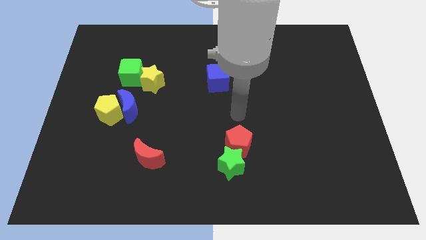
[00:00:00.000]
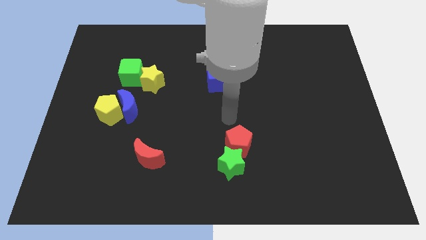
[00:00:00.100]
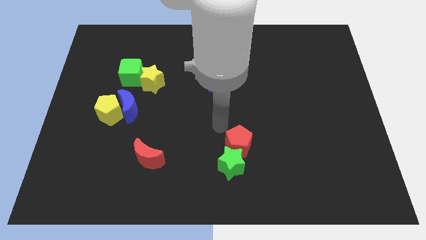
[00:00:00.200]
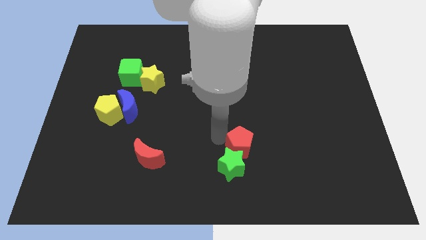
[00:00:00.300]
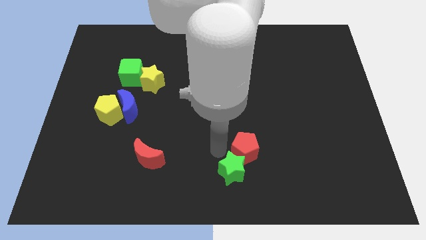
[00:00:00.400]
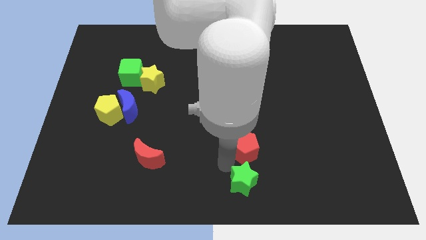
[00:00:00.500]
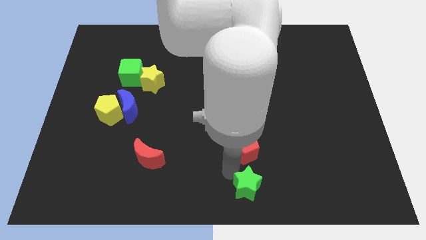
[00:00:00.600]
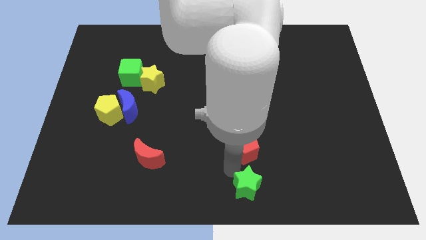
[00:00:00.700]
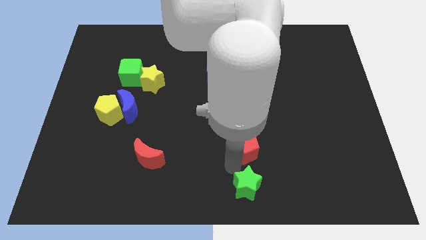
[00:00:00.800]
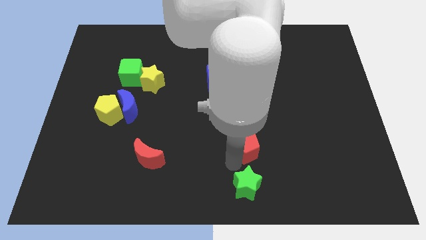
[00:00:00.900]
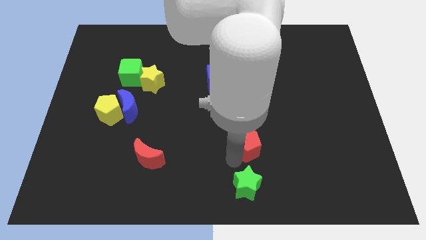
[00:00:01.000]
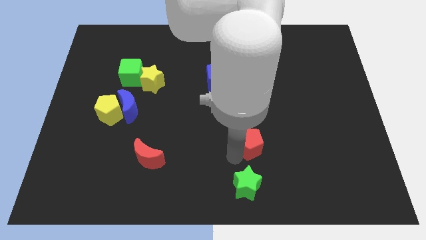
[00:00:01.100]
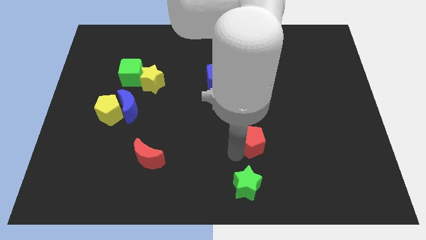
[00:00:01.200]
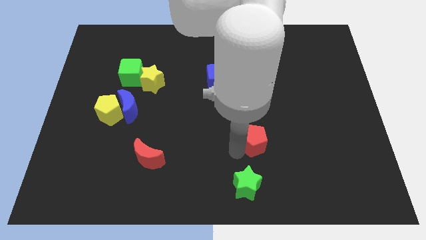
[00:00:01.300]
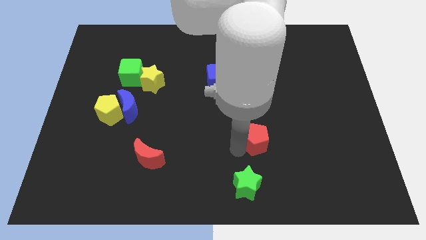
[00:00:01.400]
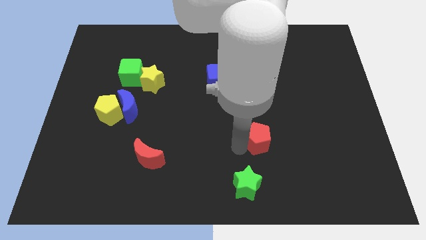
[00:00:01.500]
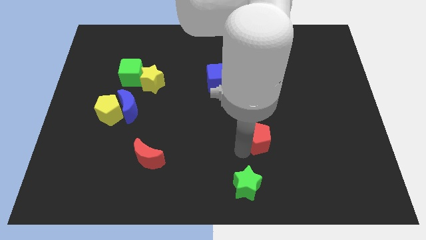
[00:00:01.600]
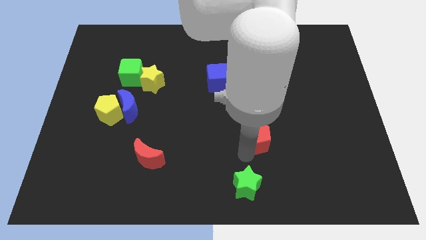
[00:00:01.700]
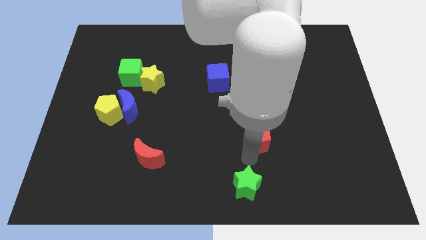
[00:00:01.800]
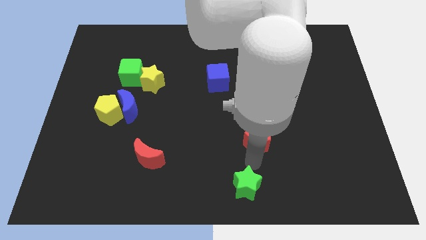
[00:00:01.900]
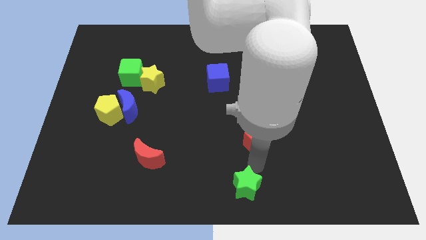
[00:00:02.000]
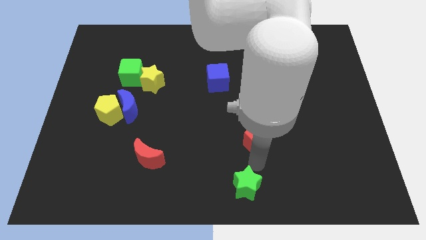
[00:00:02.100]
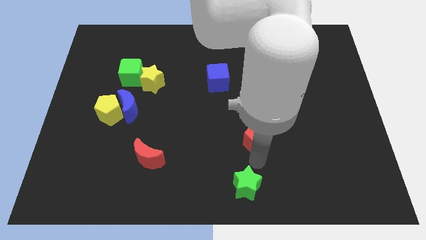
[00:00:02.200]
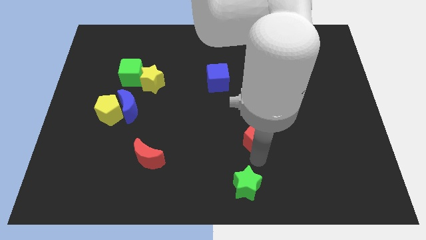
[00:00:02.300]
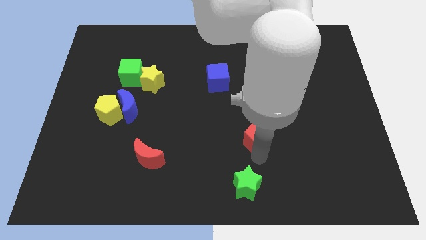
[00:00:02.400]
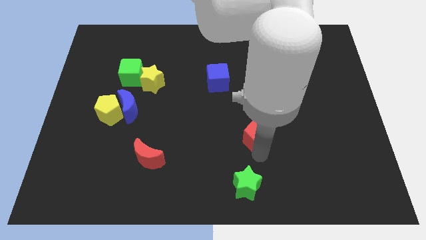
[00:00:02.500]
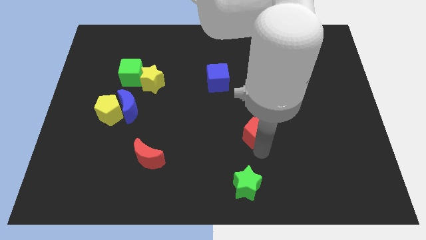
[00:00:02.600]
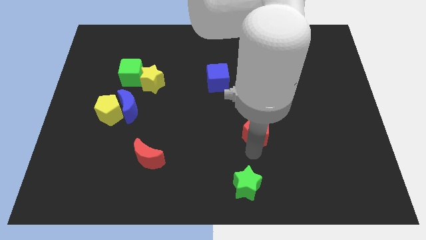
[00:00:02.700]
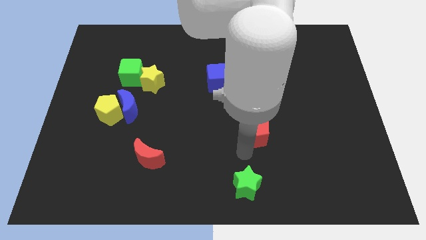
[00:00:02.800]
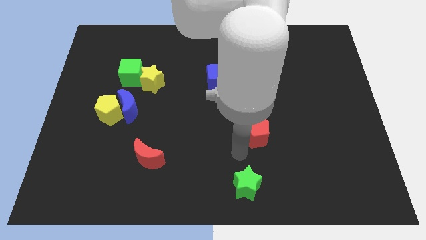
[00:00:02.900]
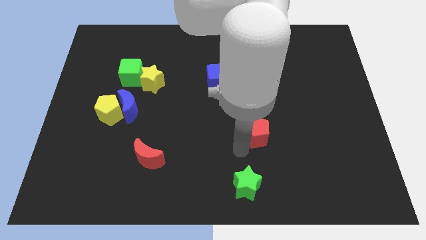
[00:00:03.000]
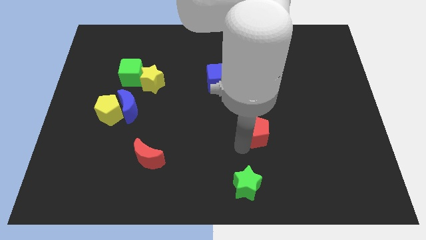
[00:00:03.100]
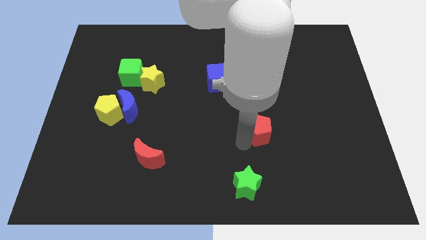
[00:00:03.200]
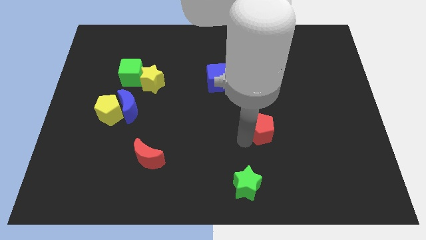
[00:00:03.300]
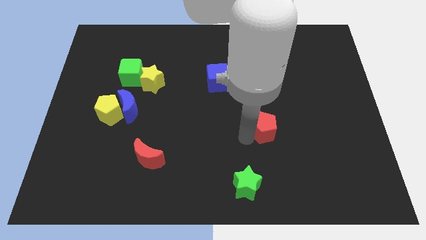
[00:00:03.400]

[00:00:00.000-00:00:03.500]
push the red pentagon diagonally up and to the right a little bit

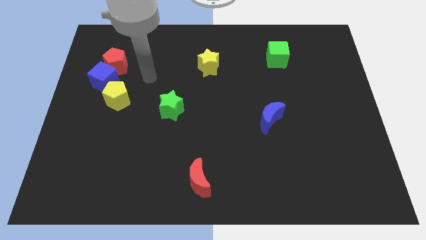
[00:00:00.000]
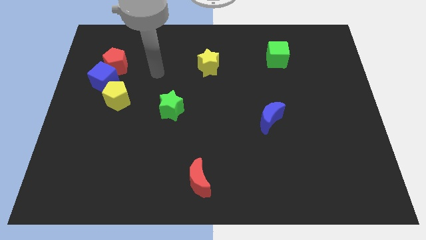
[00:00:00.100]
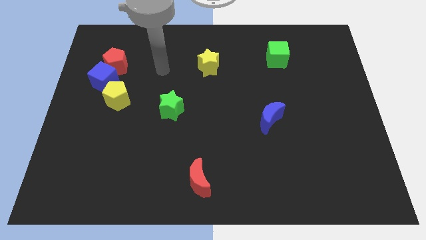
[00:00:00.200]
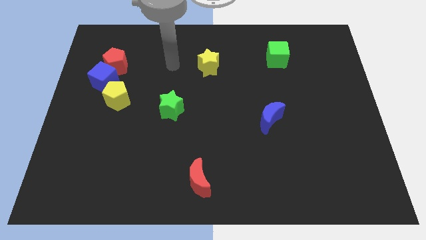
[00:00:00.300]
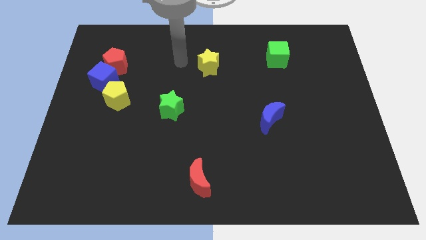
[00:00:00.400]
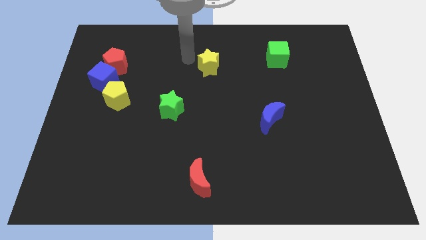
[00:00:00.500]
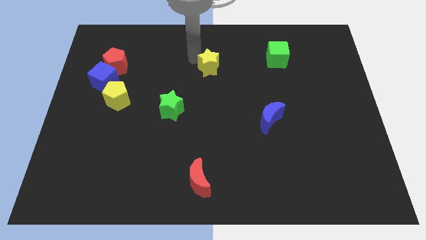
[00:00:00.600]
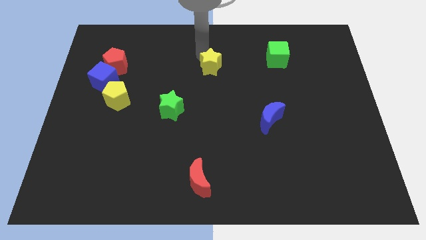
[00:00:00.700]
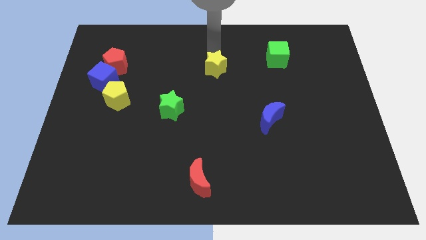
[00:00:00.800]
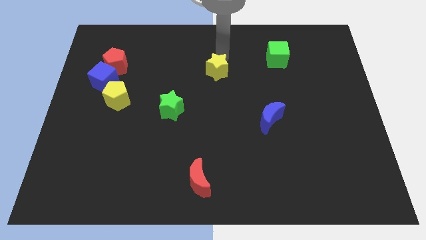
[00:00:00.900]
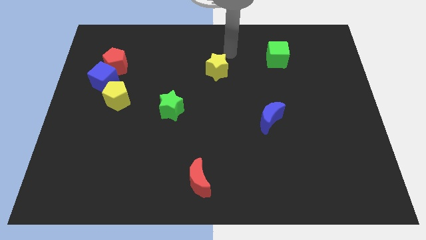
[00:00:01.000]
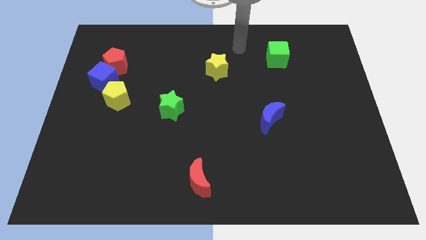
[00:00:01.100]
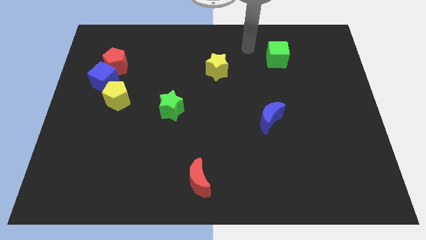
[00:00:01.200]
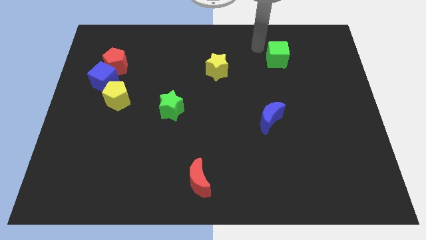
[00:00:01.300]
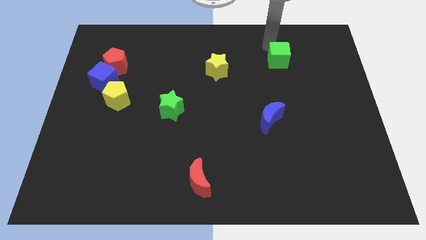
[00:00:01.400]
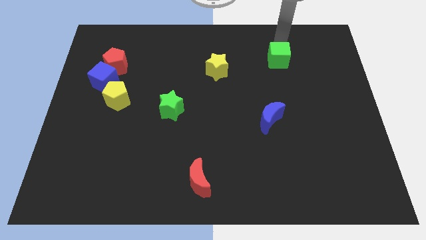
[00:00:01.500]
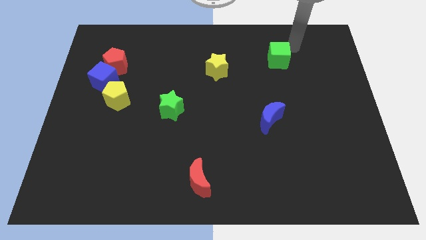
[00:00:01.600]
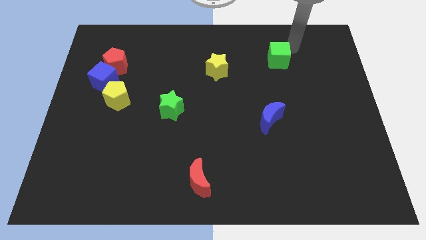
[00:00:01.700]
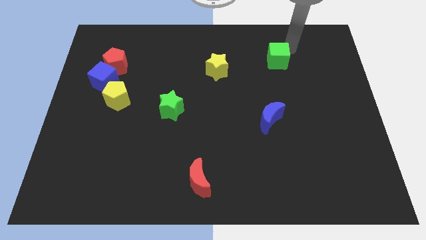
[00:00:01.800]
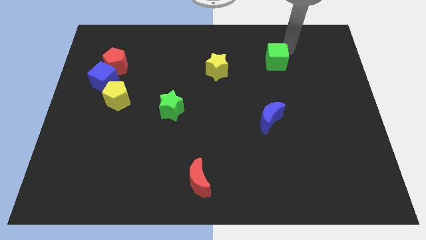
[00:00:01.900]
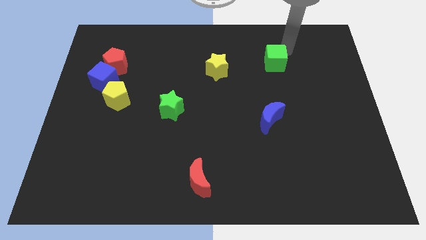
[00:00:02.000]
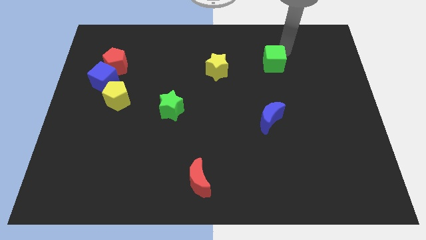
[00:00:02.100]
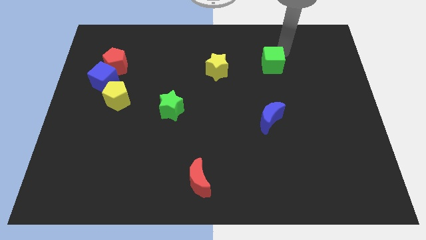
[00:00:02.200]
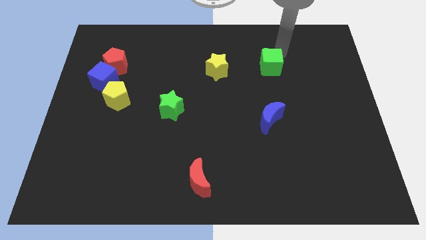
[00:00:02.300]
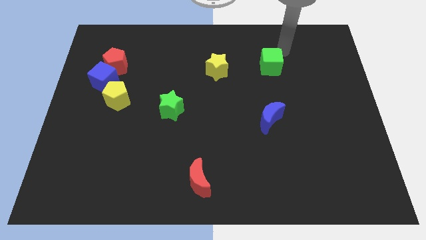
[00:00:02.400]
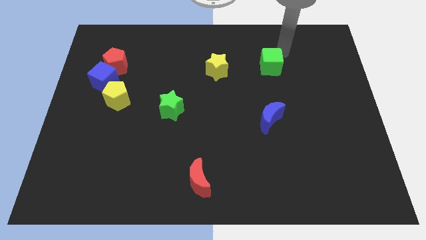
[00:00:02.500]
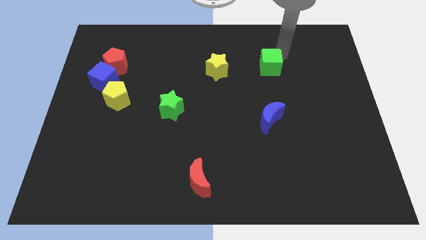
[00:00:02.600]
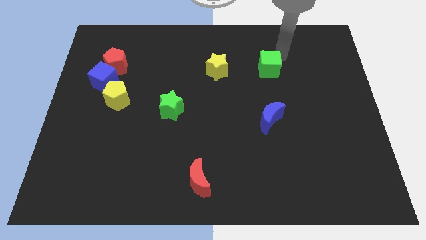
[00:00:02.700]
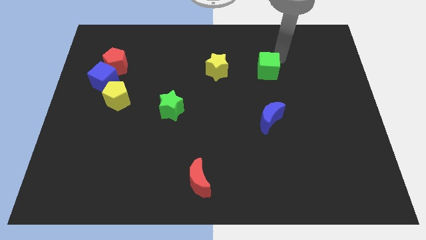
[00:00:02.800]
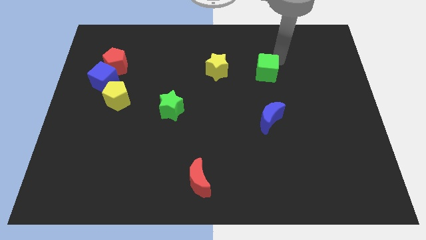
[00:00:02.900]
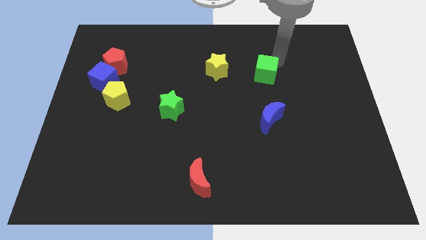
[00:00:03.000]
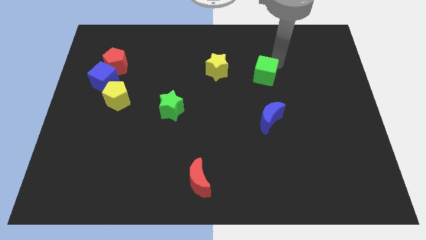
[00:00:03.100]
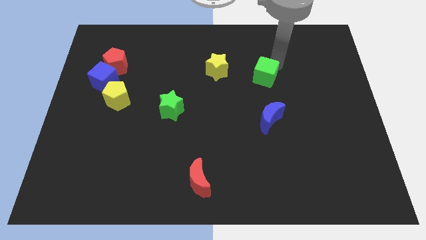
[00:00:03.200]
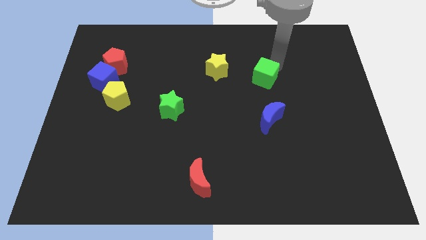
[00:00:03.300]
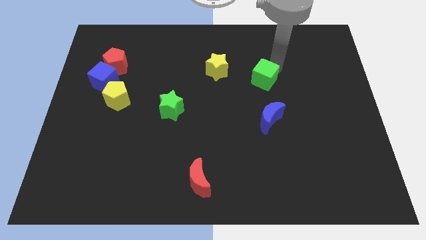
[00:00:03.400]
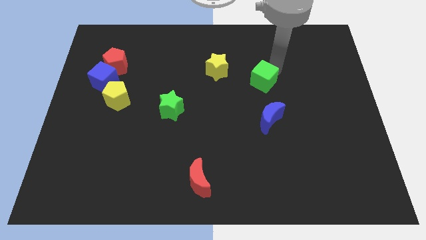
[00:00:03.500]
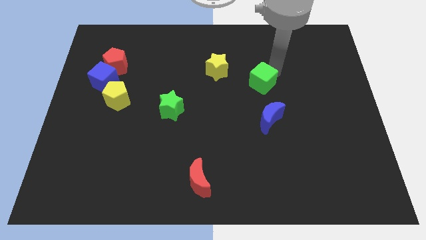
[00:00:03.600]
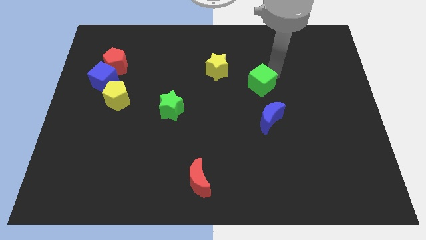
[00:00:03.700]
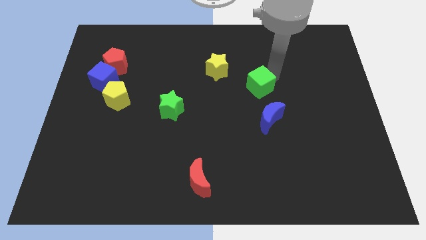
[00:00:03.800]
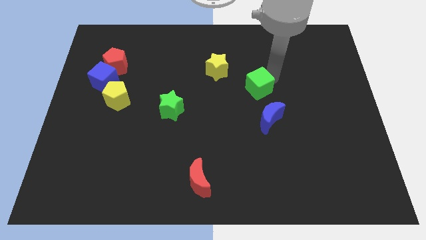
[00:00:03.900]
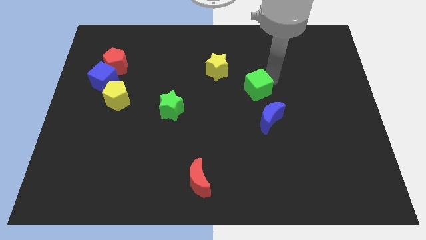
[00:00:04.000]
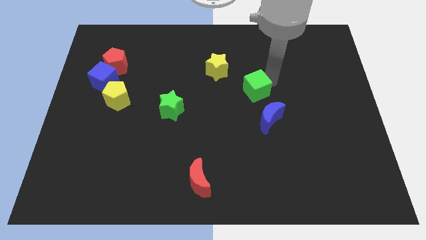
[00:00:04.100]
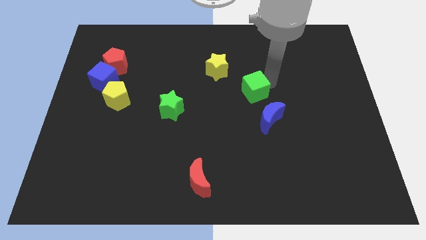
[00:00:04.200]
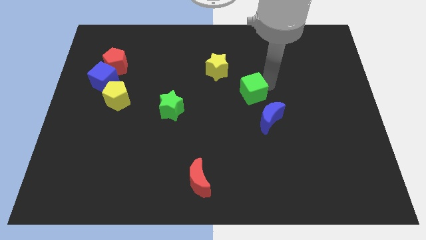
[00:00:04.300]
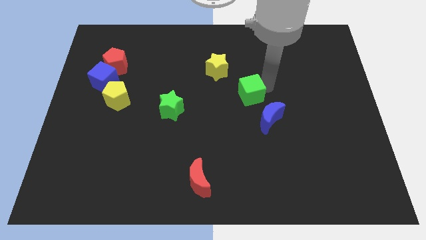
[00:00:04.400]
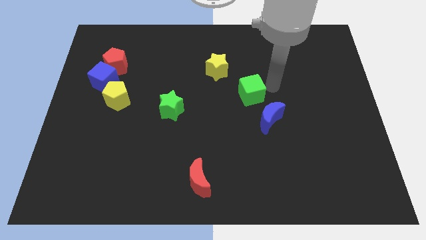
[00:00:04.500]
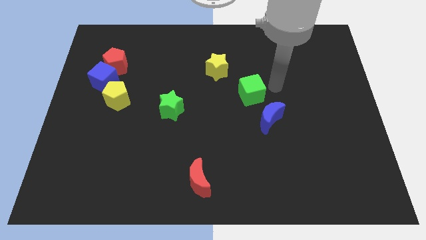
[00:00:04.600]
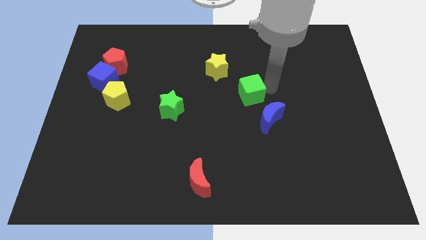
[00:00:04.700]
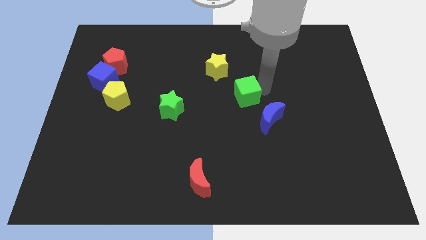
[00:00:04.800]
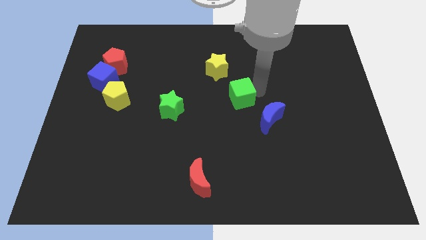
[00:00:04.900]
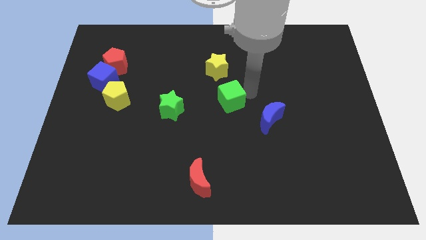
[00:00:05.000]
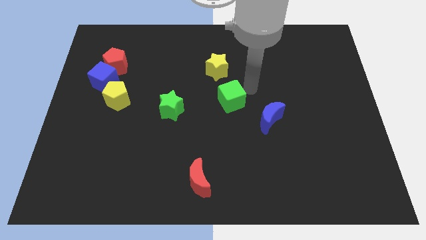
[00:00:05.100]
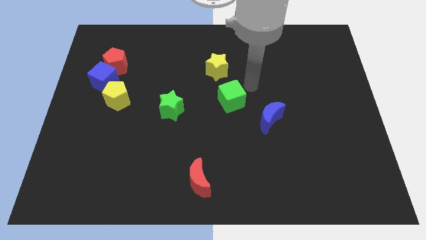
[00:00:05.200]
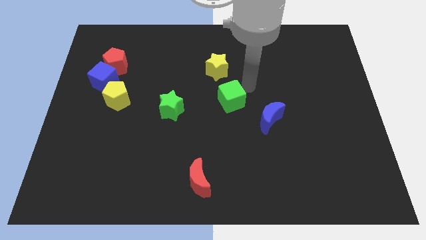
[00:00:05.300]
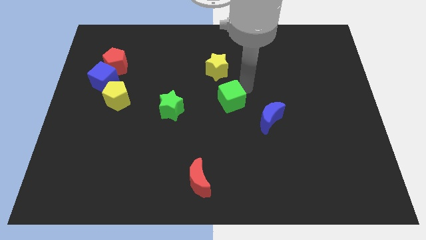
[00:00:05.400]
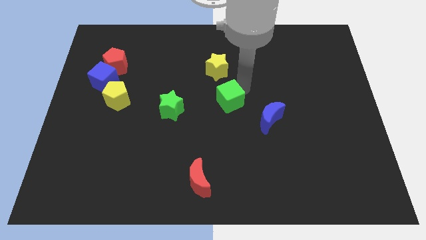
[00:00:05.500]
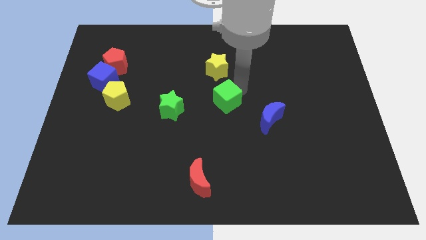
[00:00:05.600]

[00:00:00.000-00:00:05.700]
slide the green cube downwards and then left
